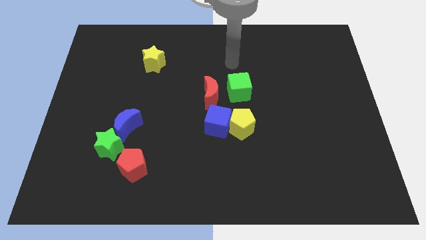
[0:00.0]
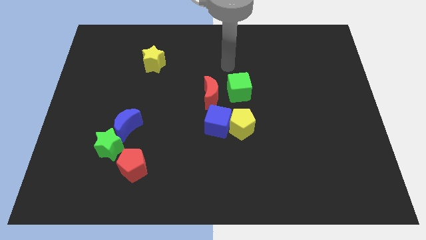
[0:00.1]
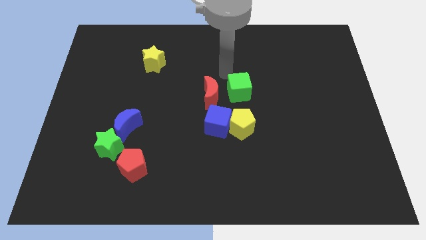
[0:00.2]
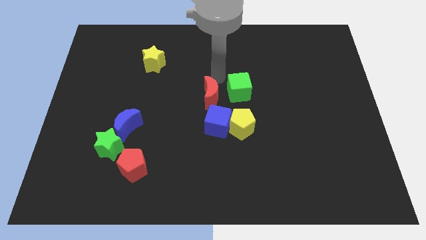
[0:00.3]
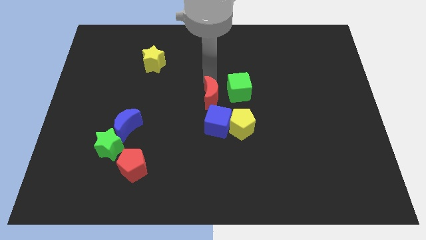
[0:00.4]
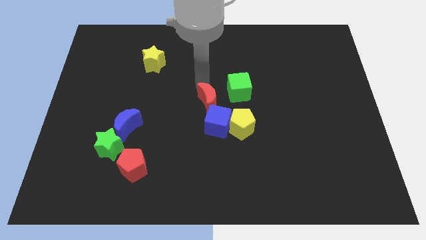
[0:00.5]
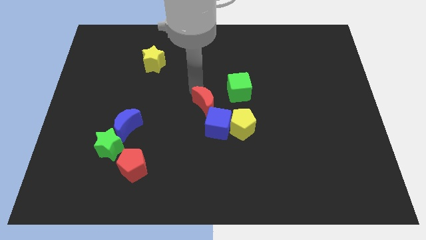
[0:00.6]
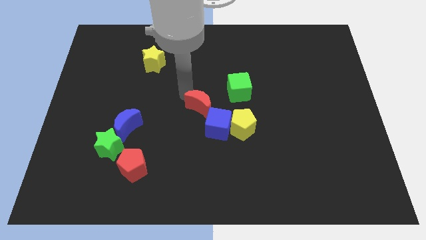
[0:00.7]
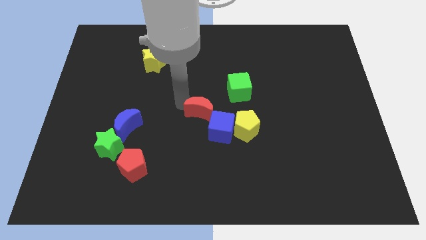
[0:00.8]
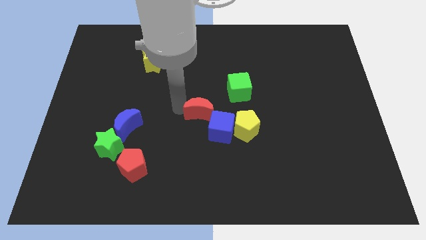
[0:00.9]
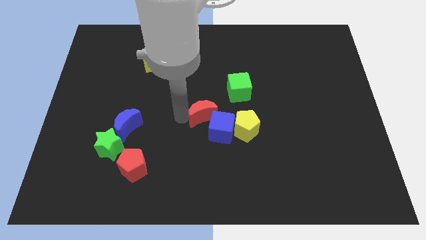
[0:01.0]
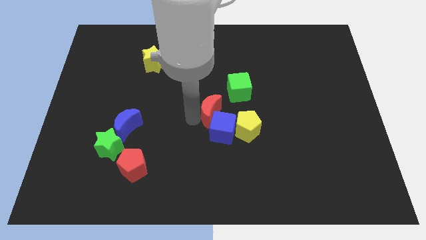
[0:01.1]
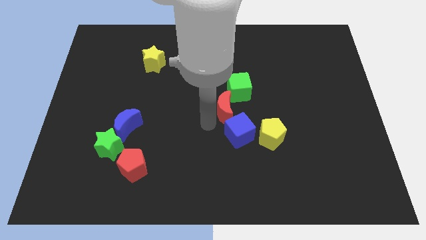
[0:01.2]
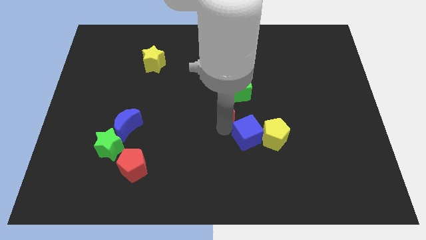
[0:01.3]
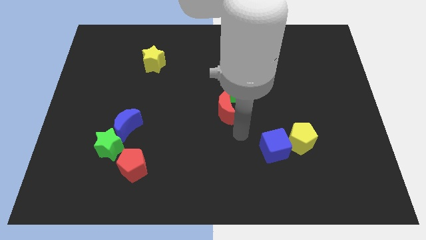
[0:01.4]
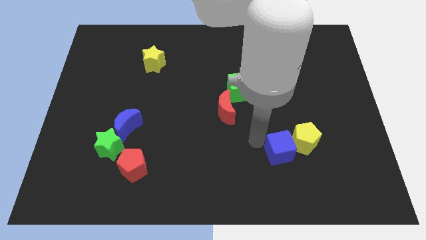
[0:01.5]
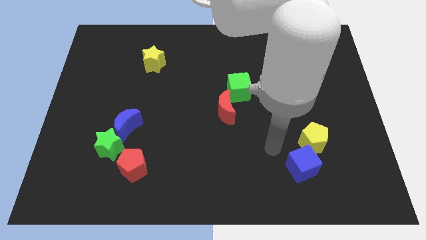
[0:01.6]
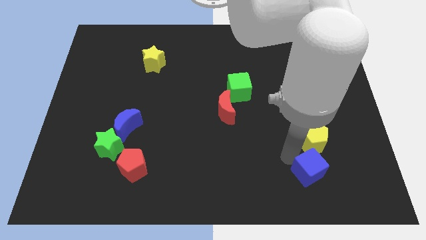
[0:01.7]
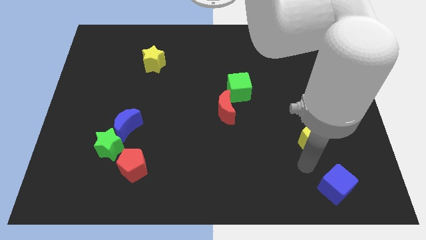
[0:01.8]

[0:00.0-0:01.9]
move the yellow pentagon away from the blue cube

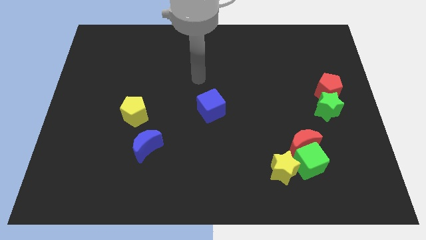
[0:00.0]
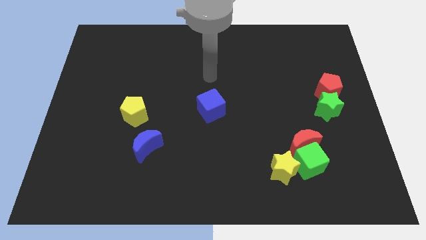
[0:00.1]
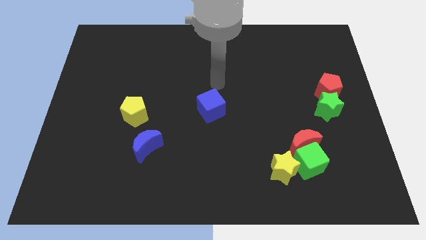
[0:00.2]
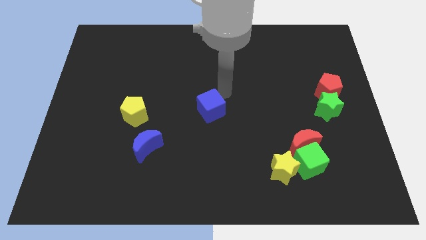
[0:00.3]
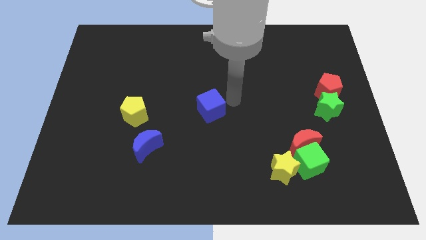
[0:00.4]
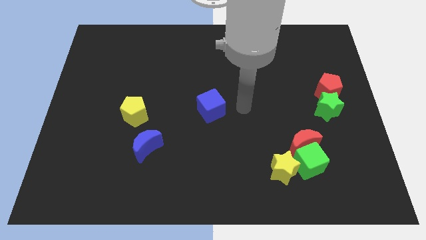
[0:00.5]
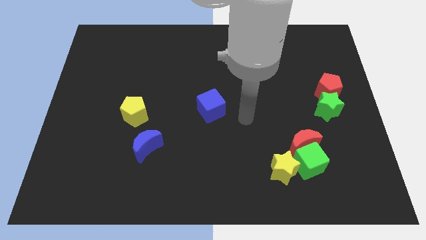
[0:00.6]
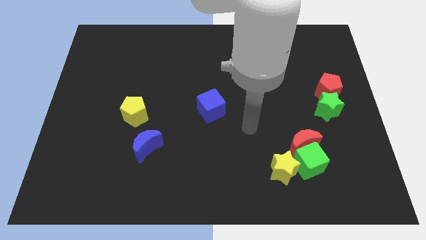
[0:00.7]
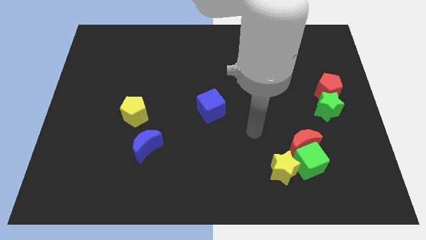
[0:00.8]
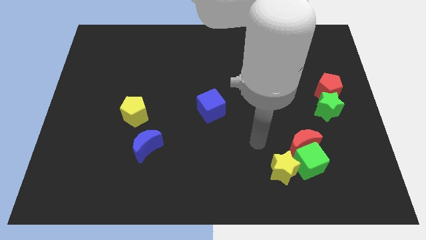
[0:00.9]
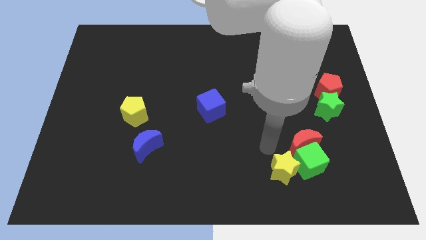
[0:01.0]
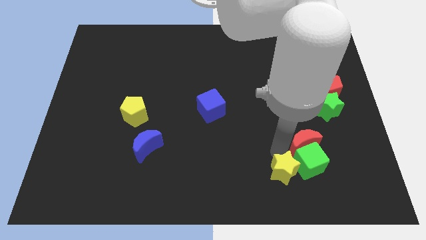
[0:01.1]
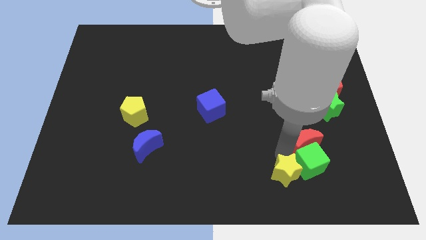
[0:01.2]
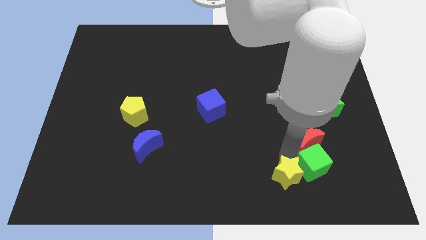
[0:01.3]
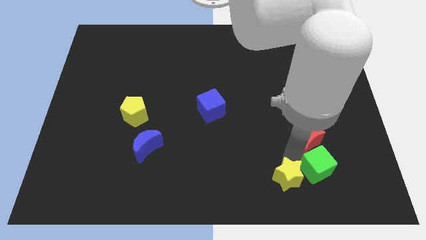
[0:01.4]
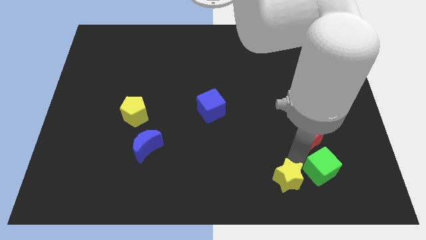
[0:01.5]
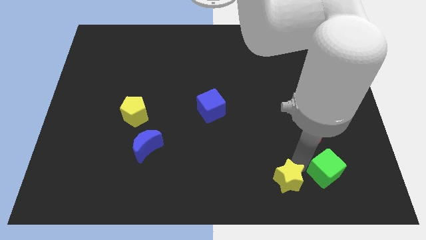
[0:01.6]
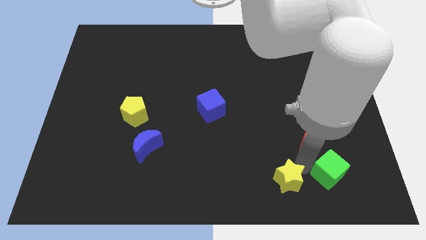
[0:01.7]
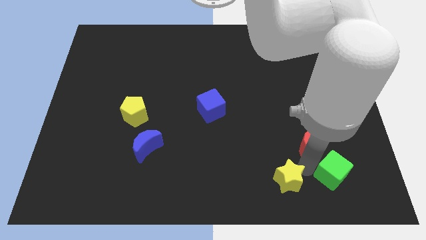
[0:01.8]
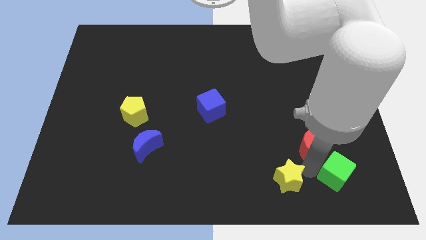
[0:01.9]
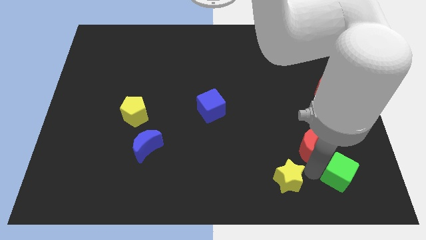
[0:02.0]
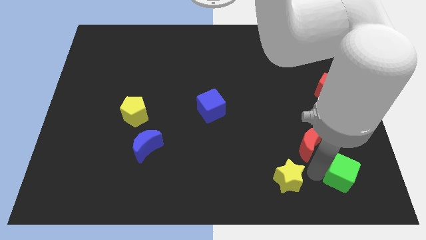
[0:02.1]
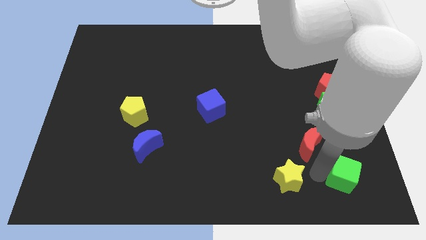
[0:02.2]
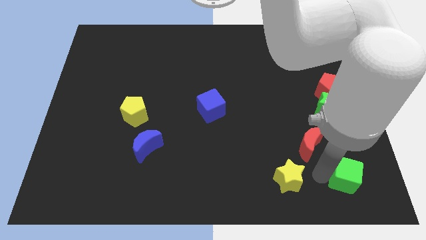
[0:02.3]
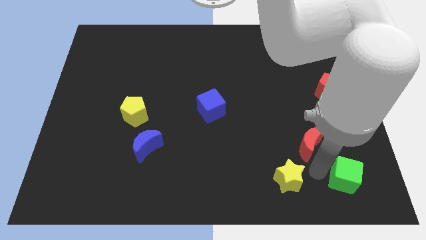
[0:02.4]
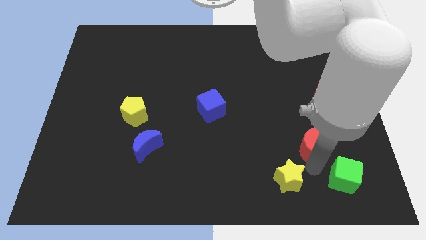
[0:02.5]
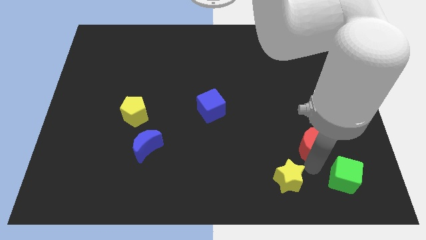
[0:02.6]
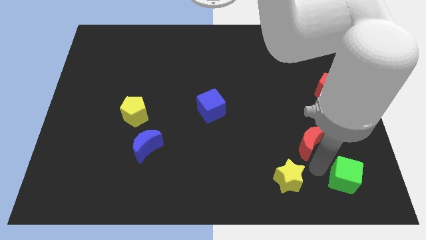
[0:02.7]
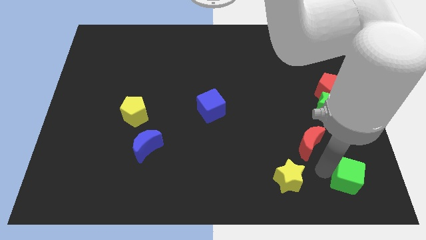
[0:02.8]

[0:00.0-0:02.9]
pull the green cube apart from the red moon and yellow star

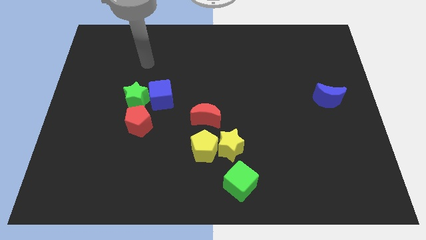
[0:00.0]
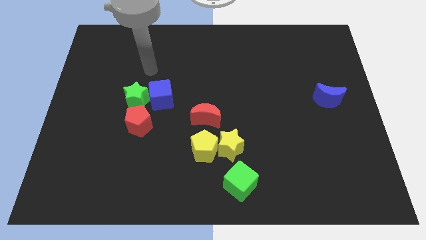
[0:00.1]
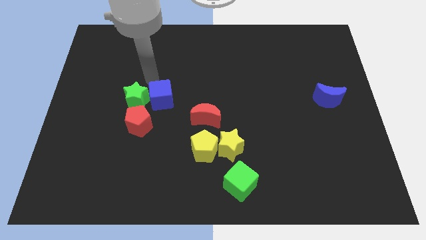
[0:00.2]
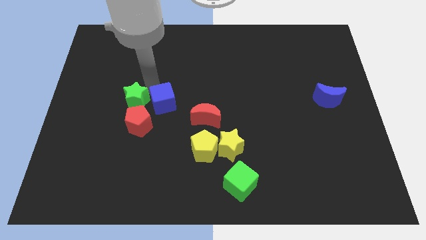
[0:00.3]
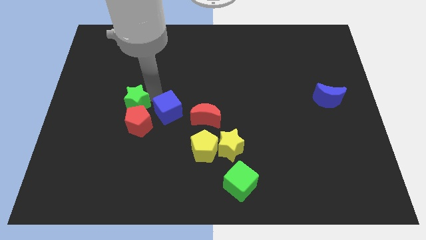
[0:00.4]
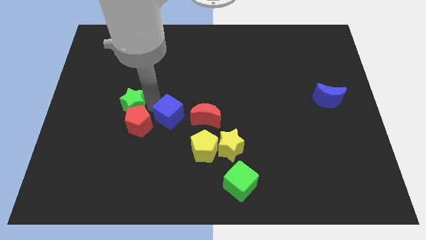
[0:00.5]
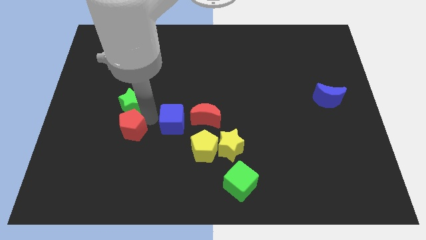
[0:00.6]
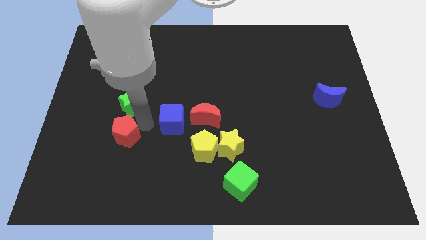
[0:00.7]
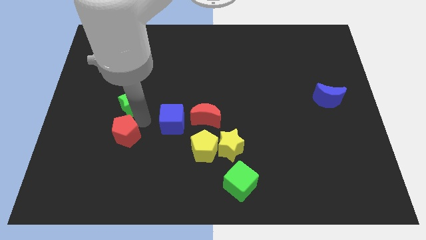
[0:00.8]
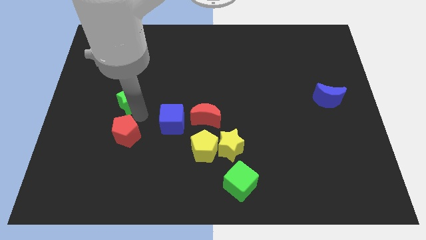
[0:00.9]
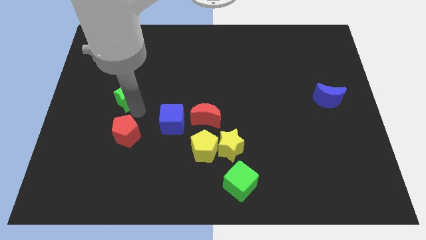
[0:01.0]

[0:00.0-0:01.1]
move the green star away from the blue cube and red pentagon

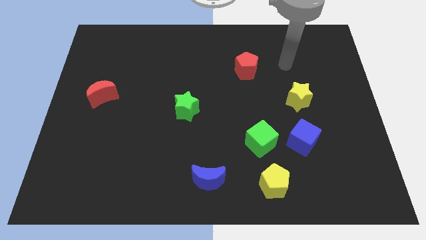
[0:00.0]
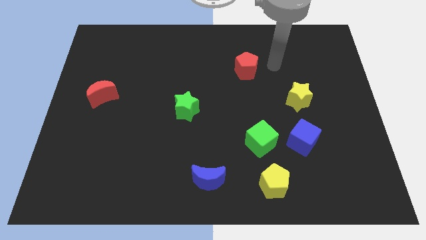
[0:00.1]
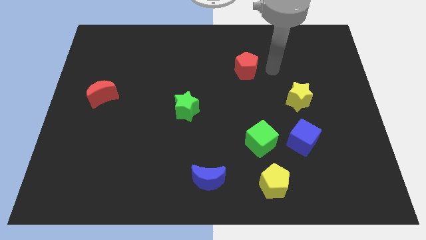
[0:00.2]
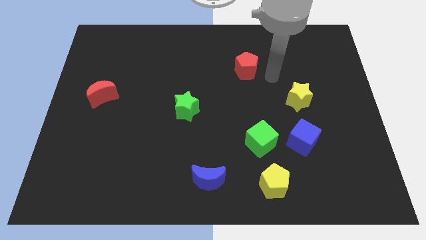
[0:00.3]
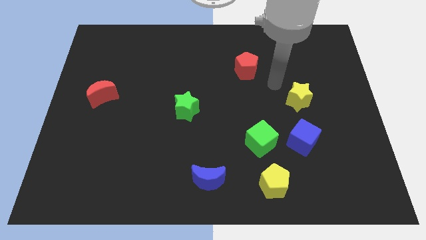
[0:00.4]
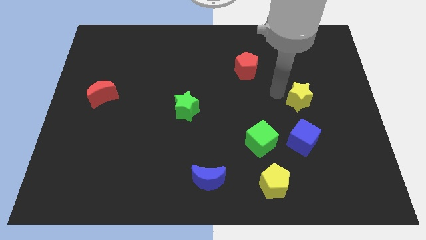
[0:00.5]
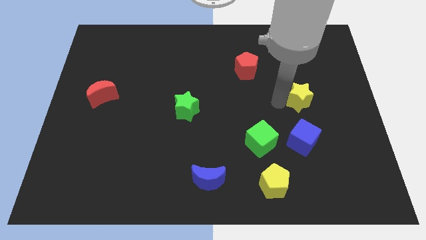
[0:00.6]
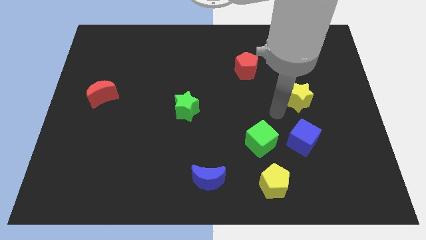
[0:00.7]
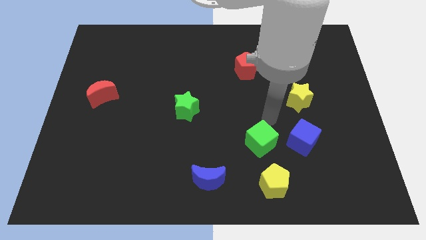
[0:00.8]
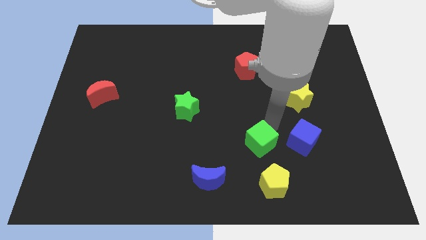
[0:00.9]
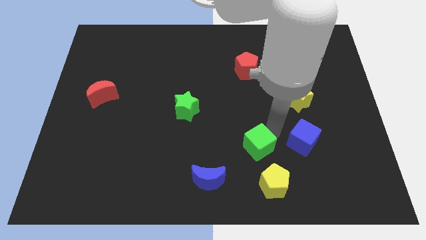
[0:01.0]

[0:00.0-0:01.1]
separate the blue cube from the green cube

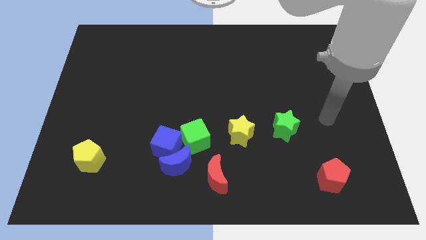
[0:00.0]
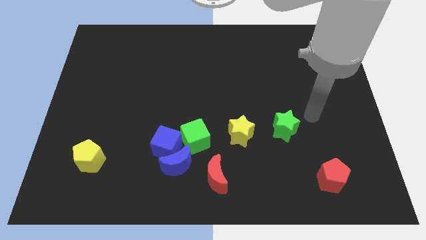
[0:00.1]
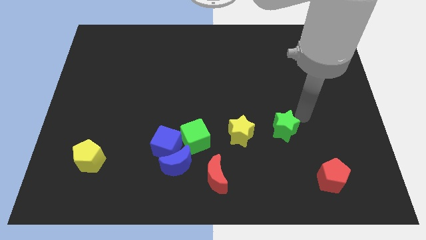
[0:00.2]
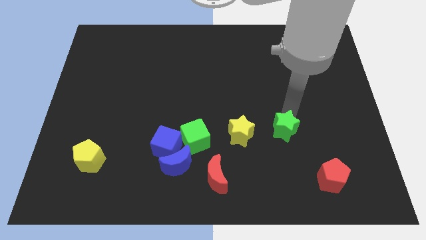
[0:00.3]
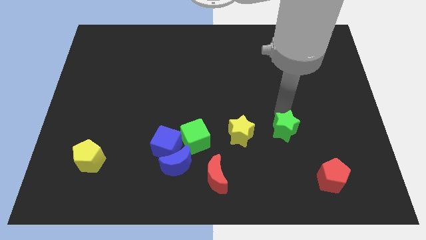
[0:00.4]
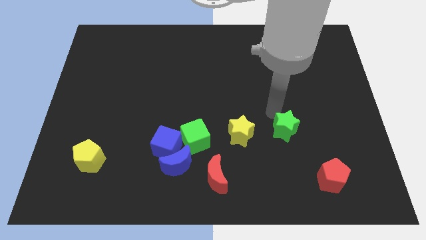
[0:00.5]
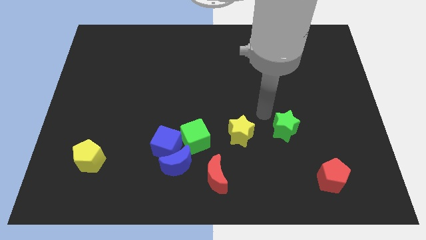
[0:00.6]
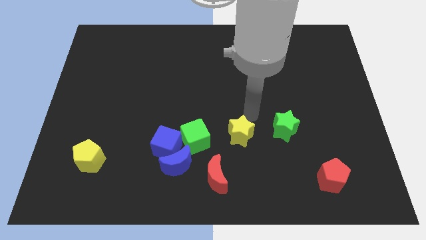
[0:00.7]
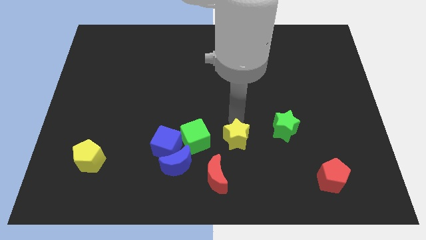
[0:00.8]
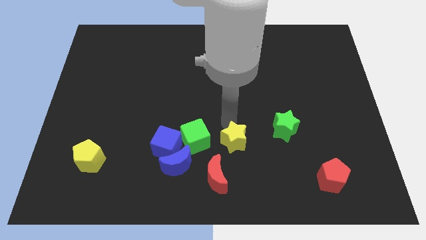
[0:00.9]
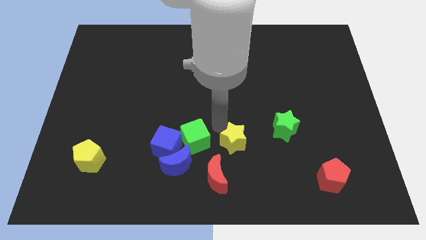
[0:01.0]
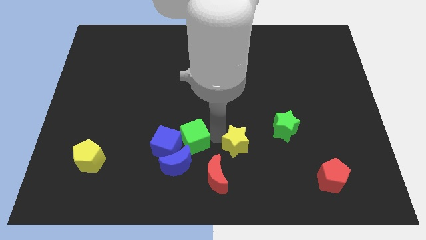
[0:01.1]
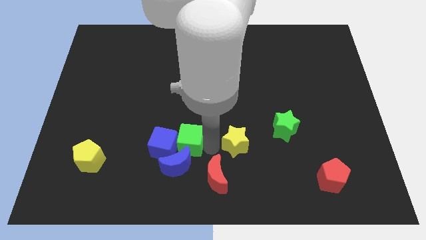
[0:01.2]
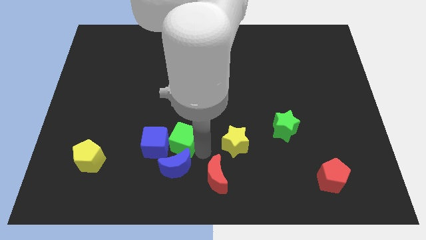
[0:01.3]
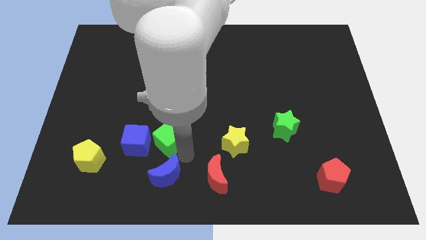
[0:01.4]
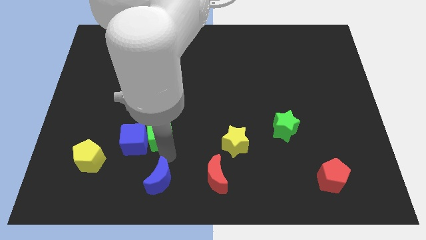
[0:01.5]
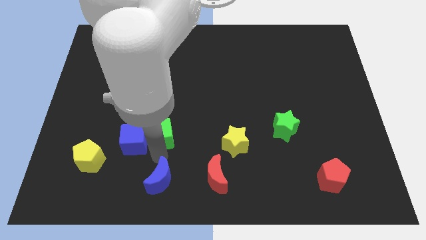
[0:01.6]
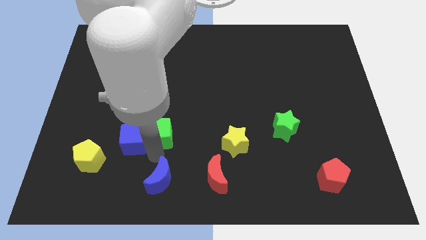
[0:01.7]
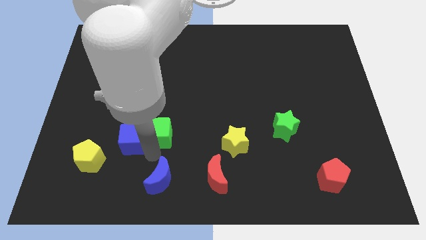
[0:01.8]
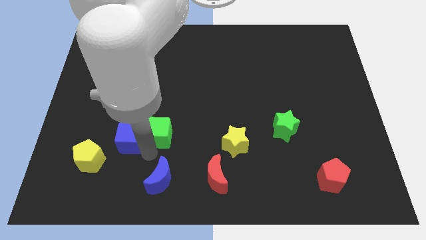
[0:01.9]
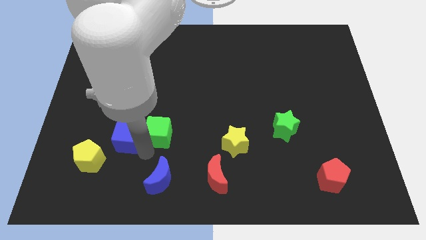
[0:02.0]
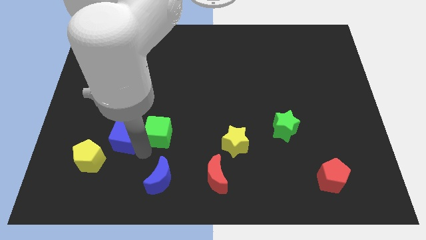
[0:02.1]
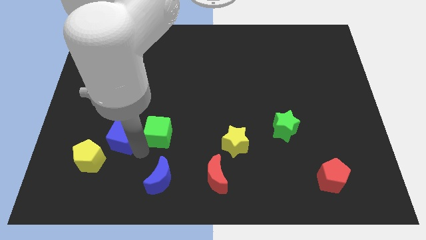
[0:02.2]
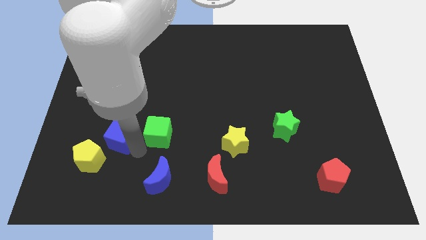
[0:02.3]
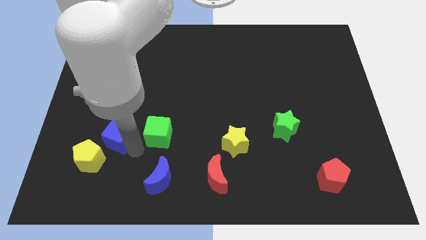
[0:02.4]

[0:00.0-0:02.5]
move the blue cube away from the blue moon and green cube
